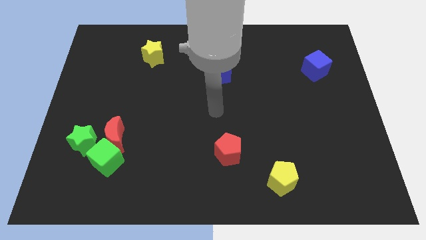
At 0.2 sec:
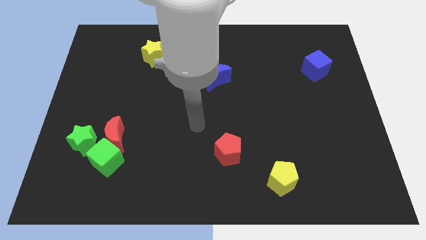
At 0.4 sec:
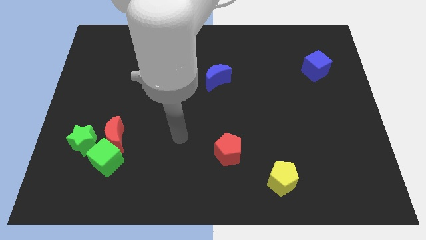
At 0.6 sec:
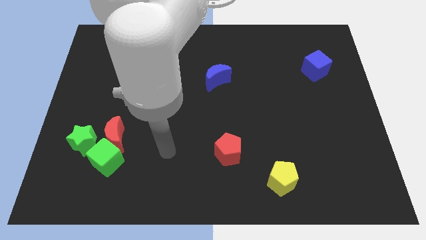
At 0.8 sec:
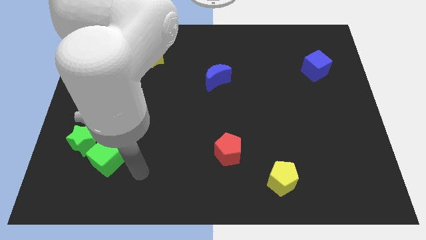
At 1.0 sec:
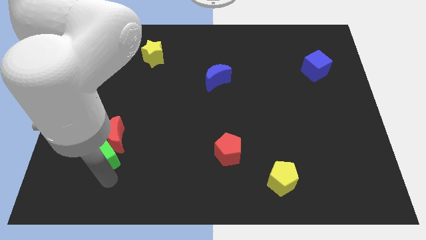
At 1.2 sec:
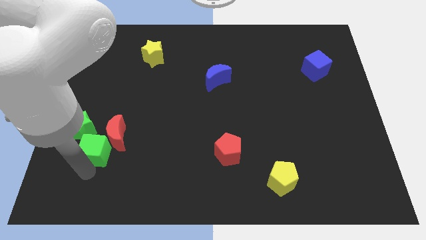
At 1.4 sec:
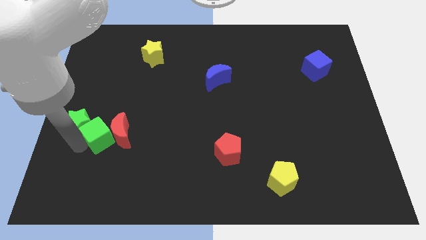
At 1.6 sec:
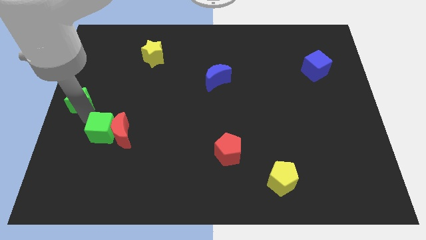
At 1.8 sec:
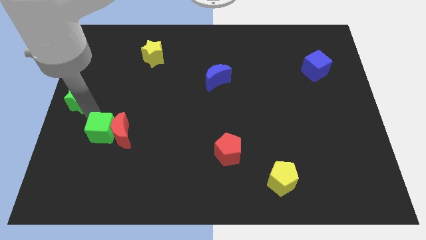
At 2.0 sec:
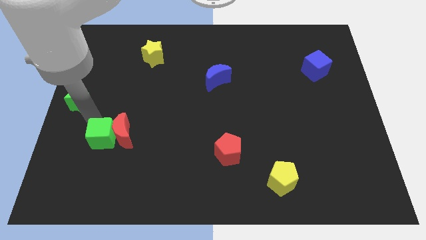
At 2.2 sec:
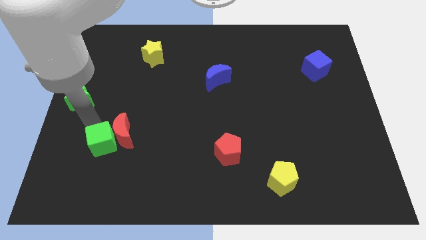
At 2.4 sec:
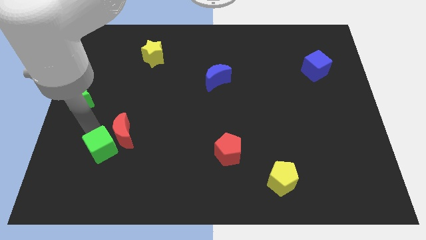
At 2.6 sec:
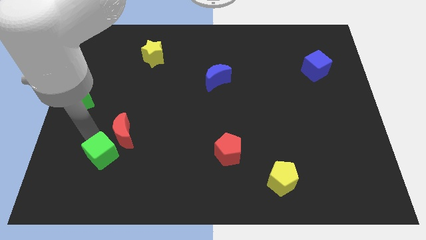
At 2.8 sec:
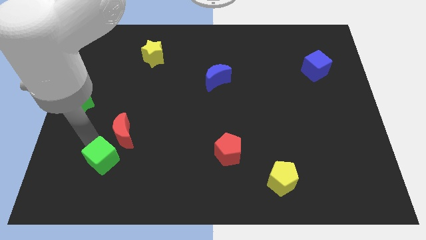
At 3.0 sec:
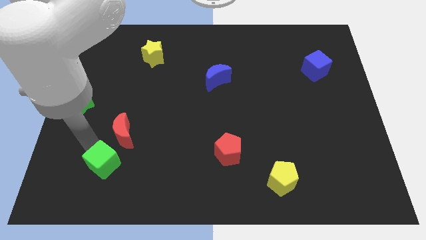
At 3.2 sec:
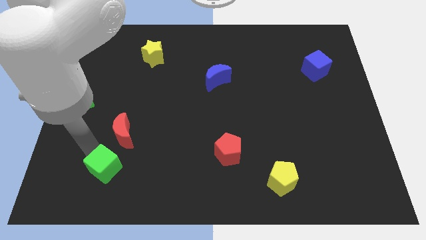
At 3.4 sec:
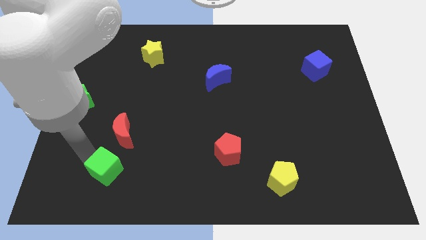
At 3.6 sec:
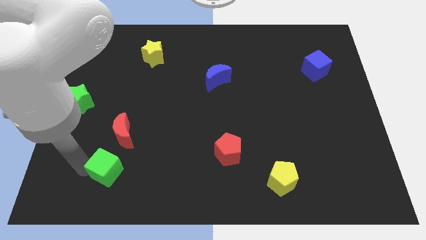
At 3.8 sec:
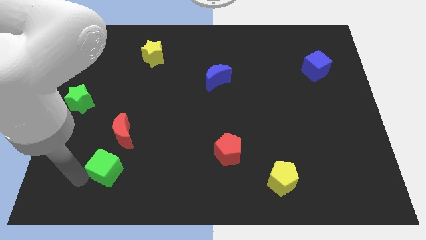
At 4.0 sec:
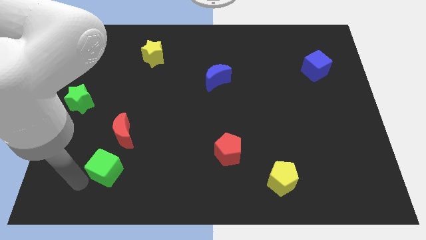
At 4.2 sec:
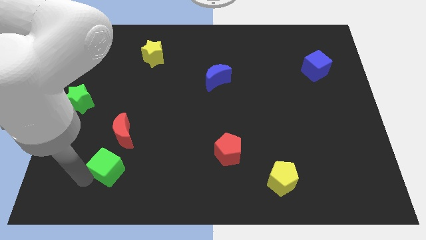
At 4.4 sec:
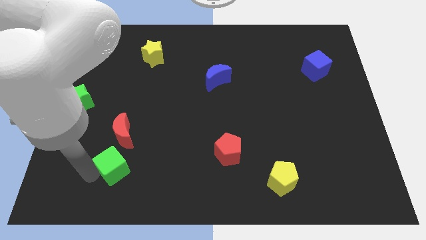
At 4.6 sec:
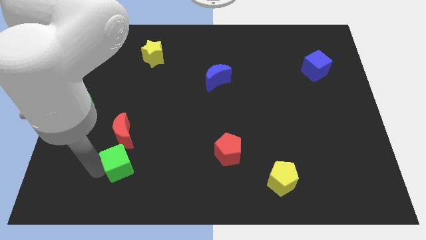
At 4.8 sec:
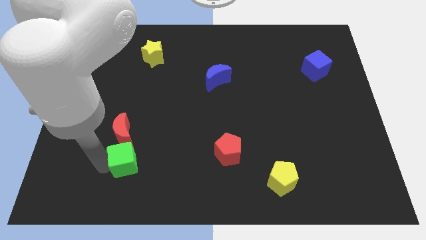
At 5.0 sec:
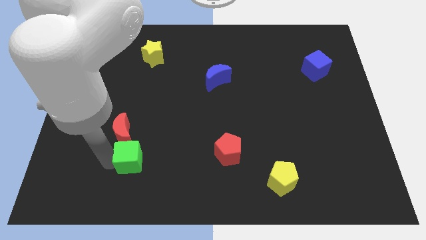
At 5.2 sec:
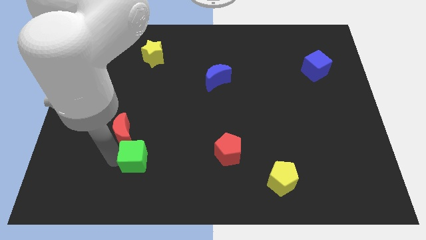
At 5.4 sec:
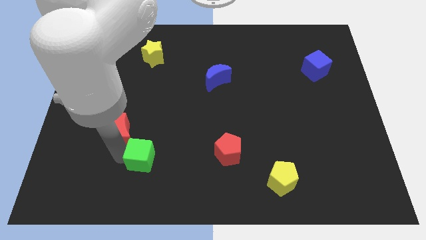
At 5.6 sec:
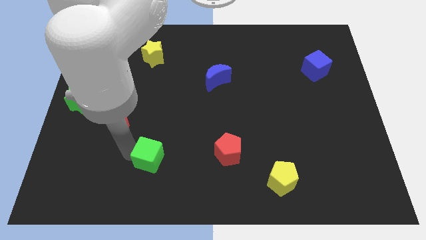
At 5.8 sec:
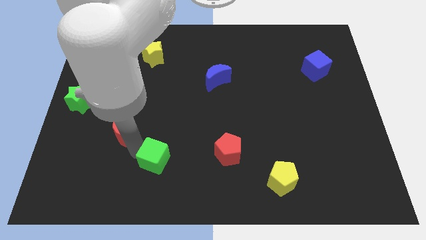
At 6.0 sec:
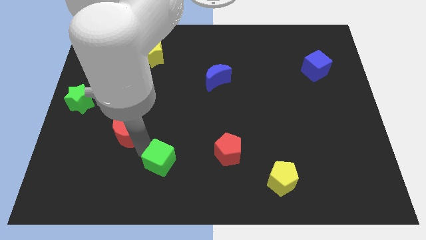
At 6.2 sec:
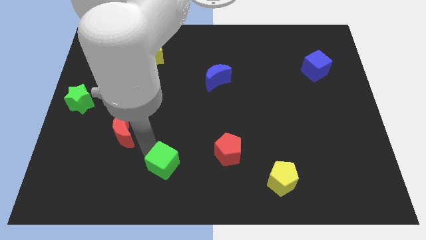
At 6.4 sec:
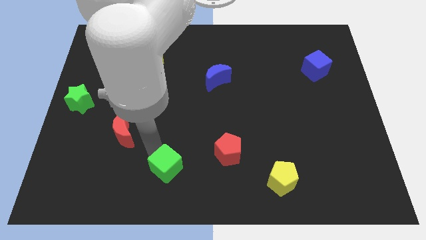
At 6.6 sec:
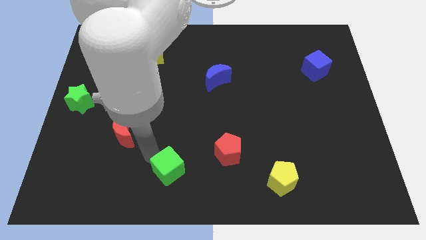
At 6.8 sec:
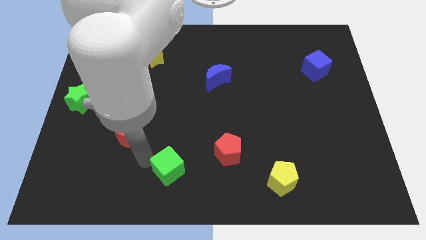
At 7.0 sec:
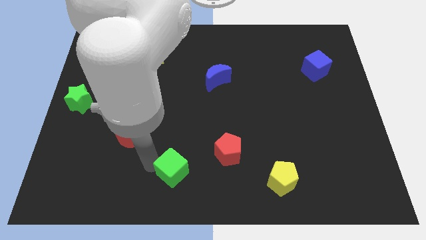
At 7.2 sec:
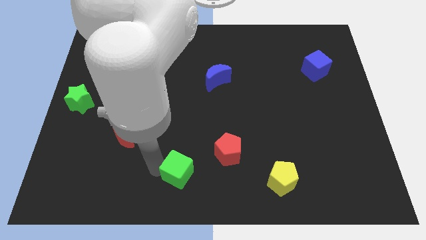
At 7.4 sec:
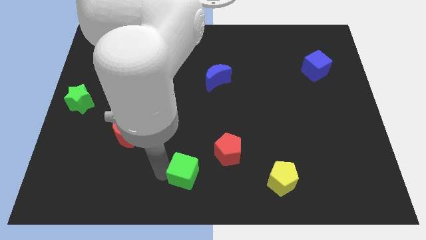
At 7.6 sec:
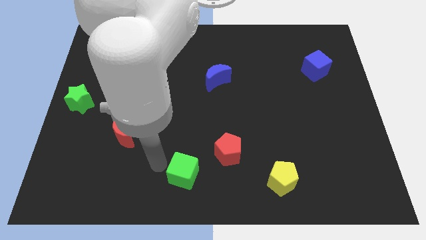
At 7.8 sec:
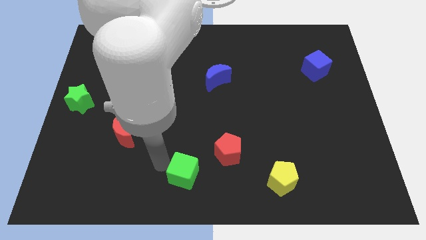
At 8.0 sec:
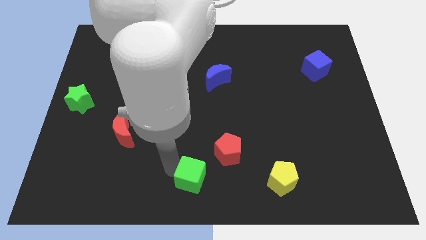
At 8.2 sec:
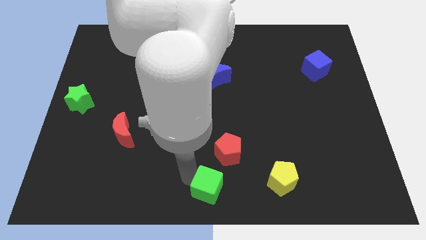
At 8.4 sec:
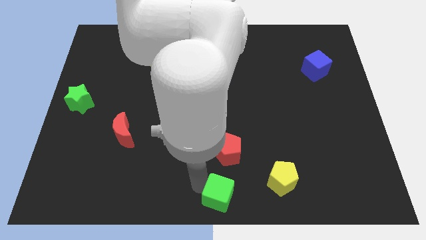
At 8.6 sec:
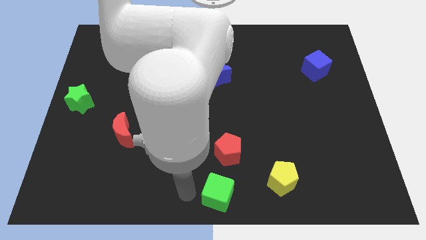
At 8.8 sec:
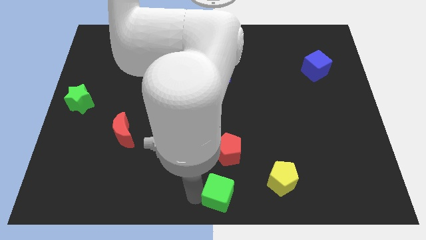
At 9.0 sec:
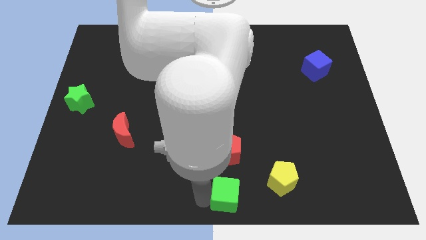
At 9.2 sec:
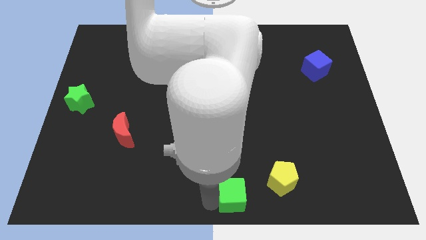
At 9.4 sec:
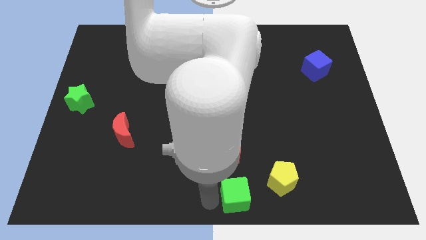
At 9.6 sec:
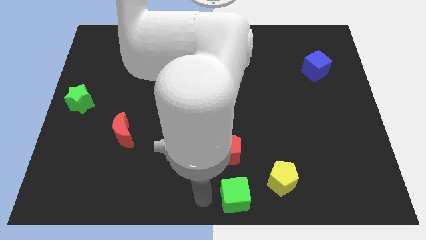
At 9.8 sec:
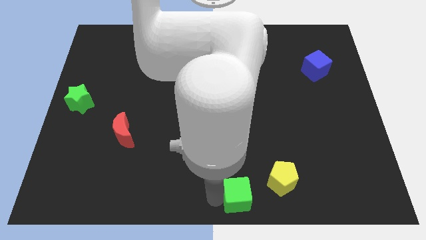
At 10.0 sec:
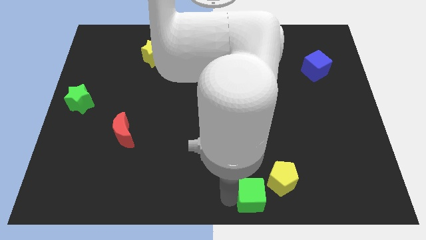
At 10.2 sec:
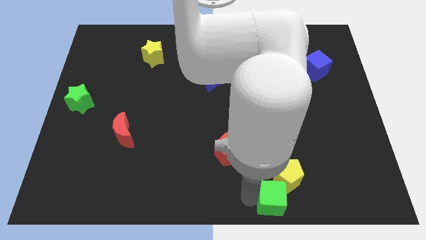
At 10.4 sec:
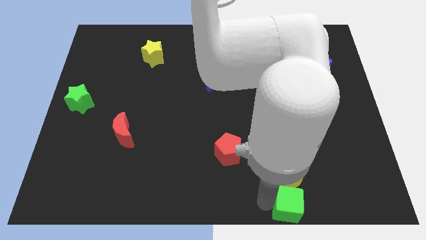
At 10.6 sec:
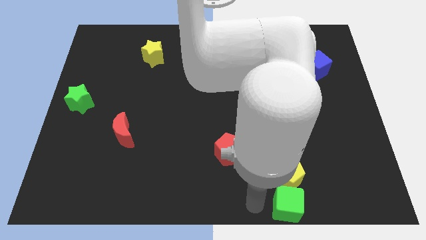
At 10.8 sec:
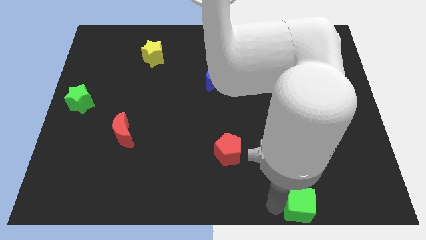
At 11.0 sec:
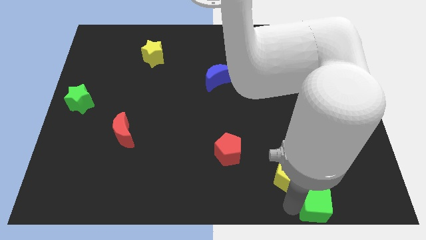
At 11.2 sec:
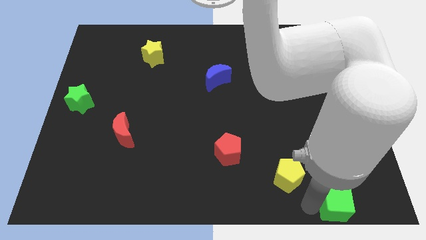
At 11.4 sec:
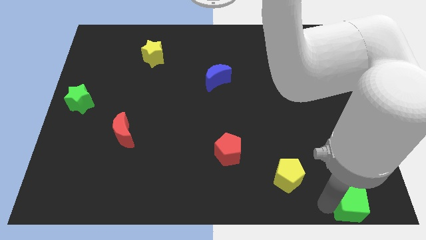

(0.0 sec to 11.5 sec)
put the green cube to the bottom right of the board
